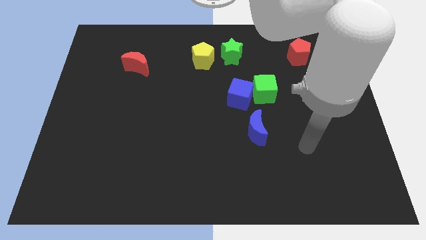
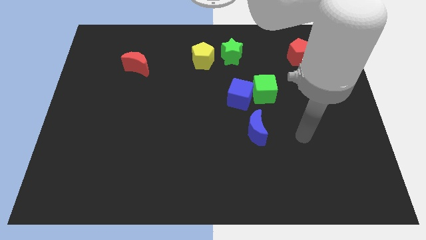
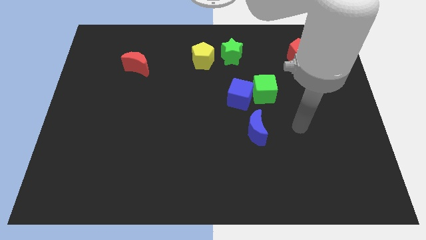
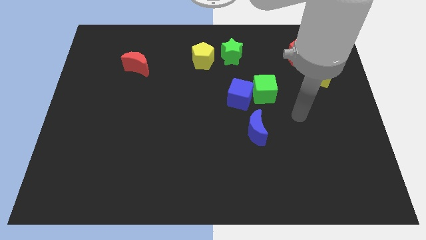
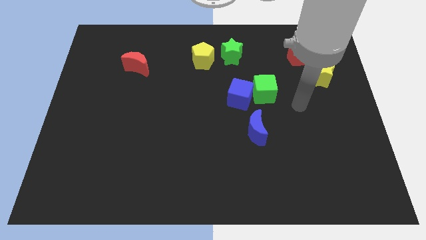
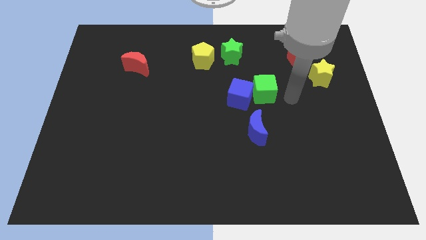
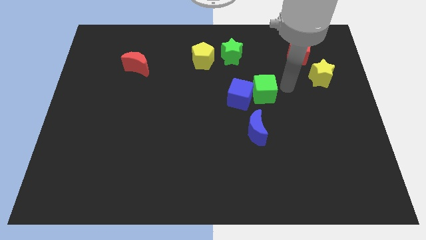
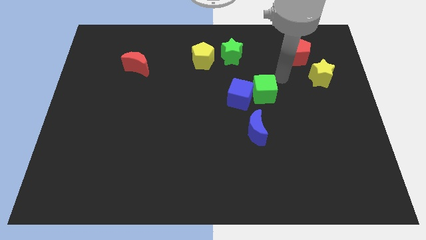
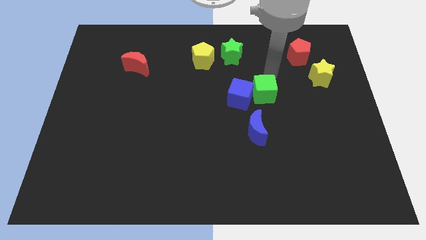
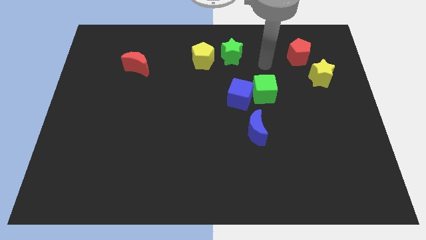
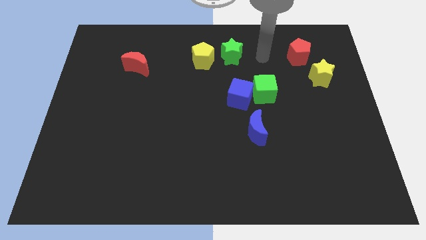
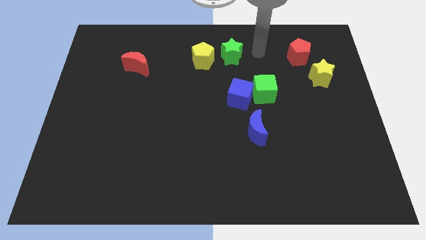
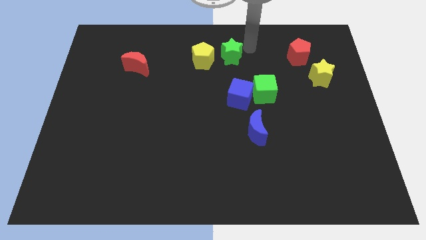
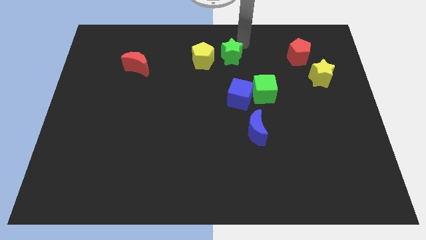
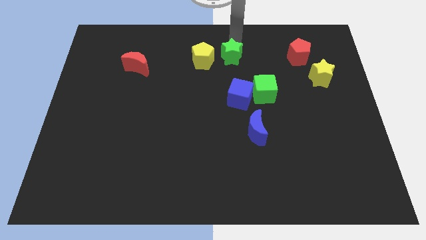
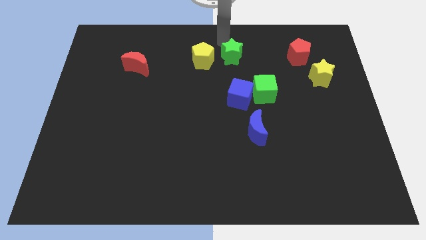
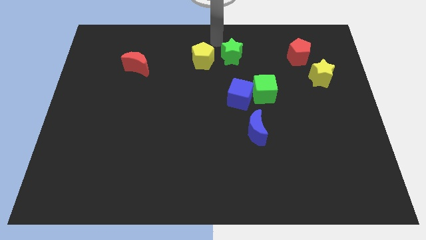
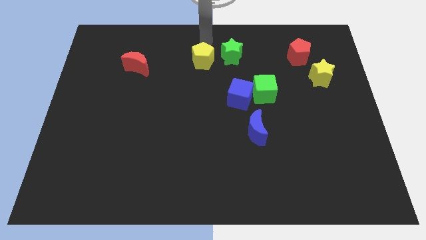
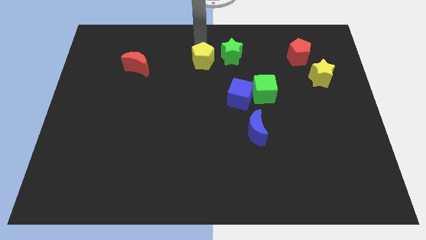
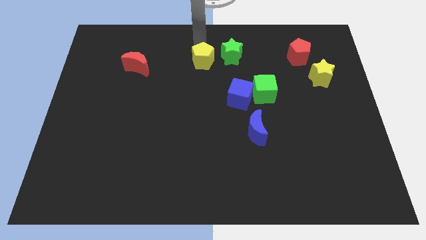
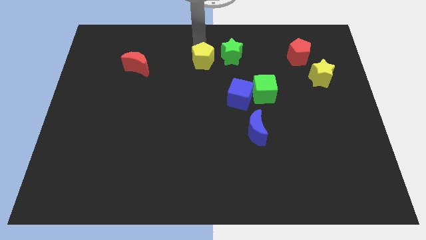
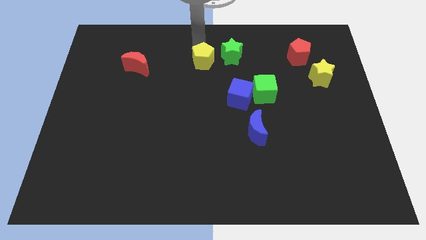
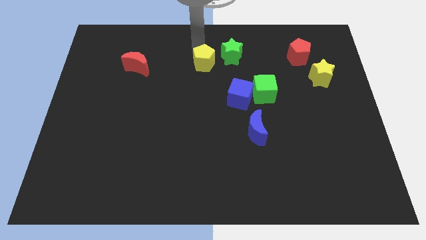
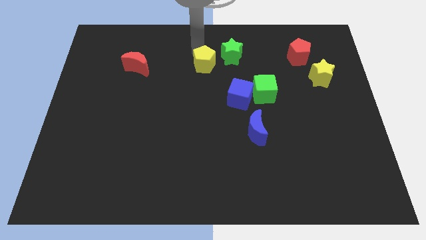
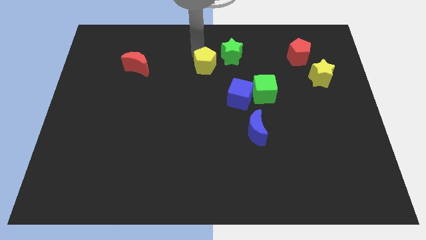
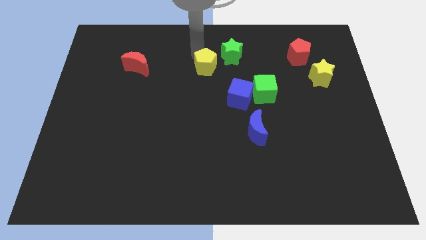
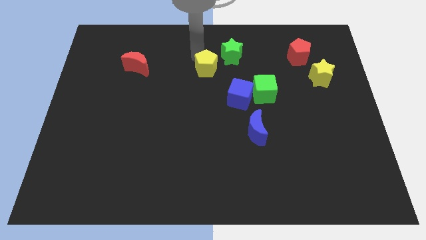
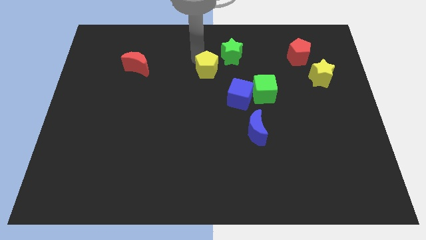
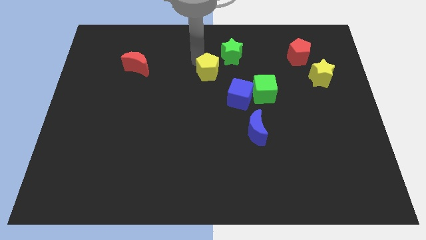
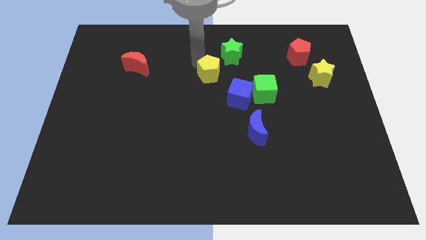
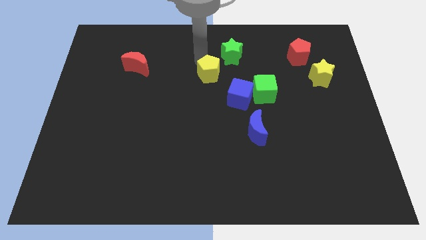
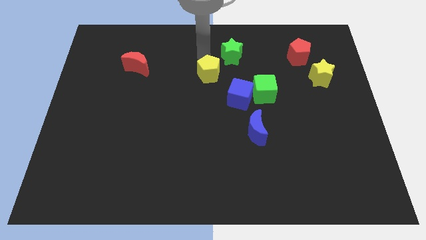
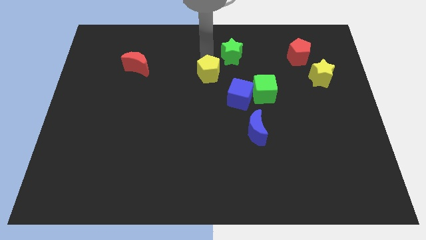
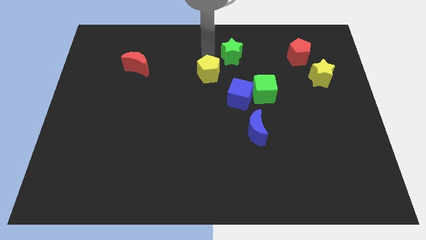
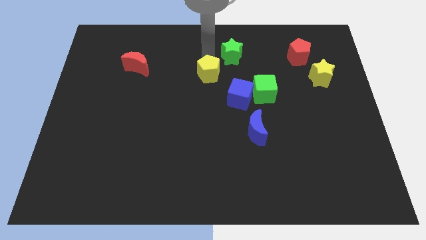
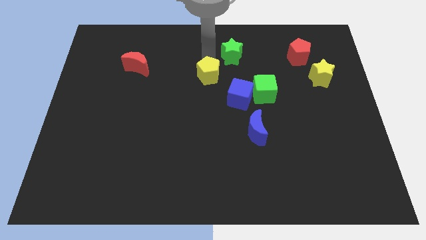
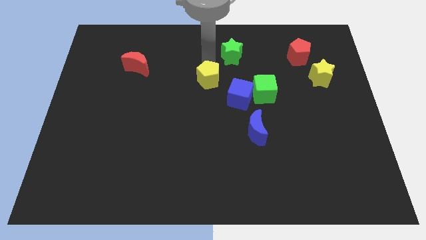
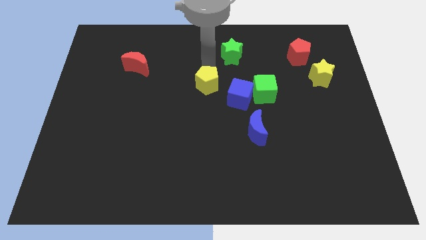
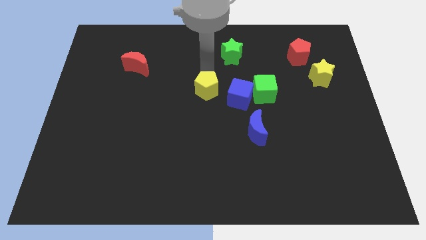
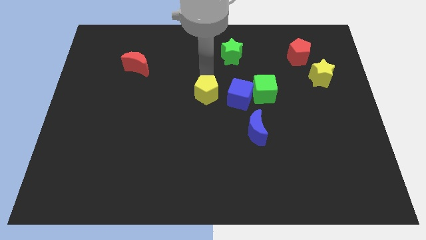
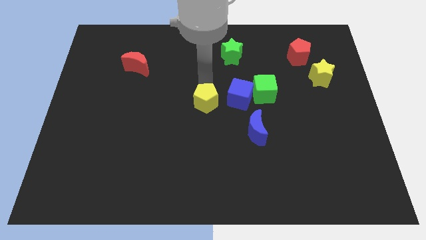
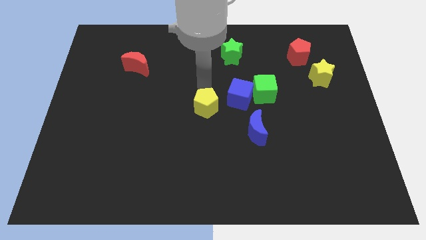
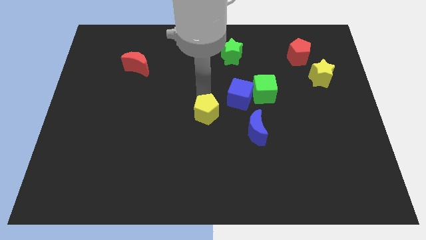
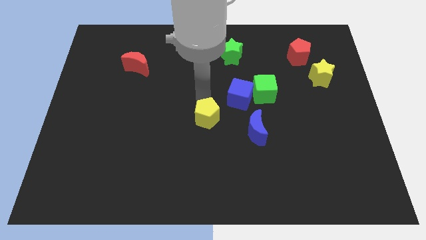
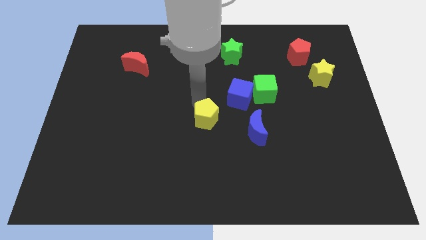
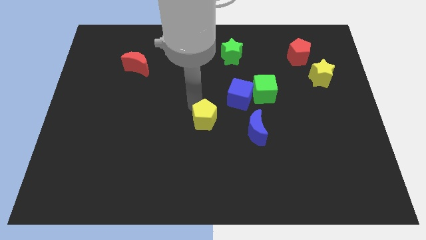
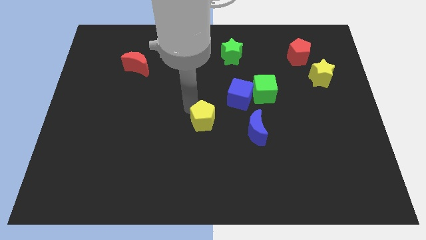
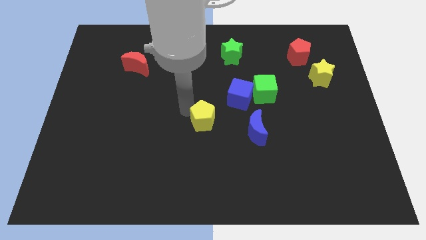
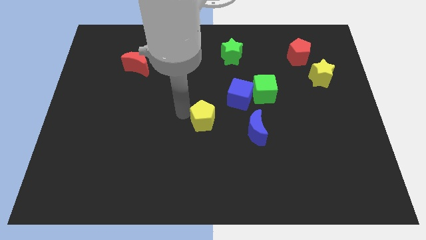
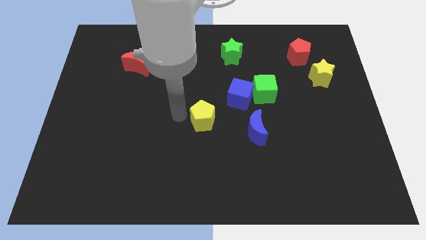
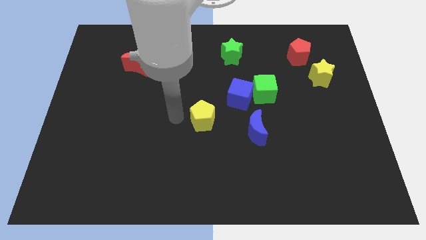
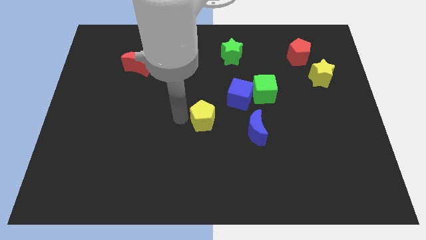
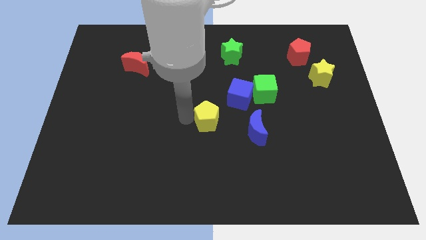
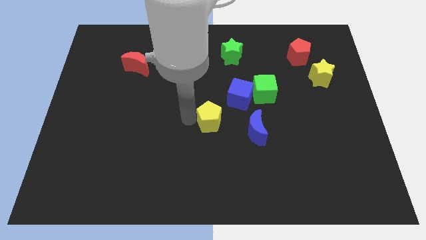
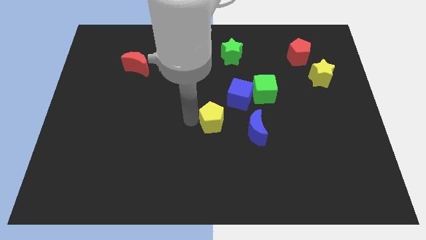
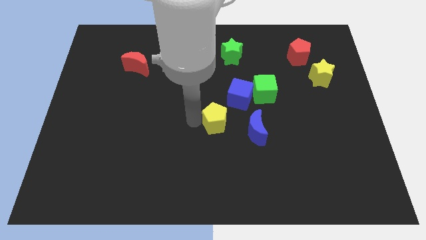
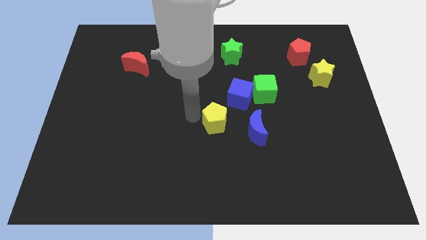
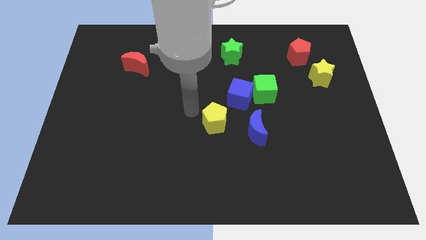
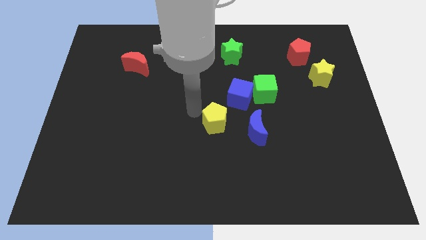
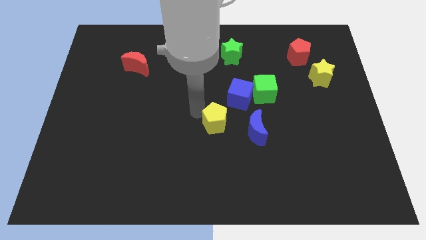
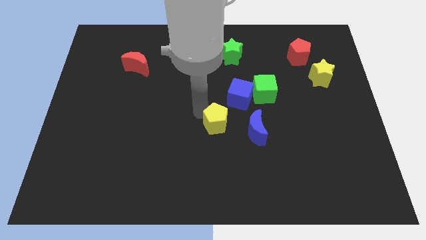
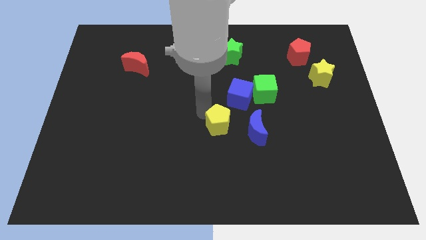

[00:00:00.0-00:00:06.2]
push the yellow pentagon below the blue cube

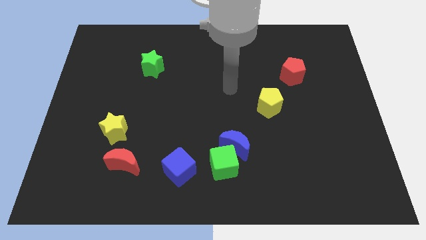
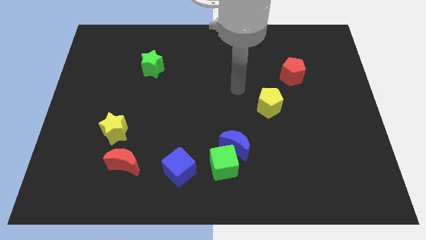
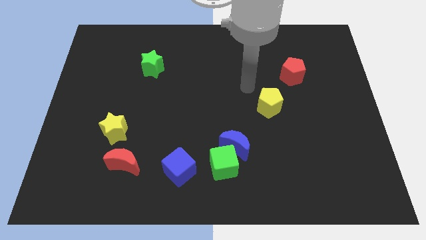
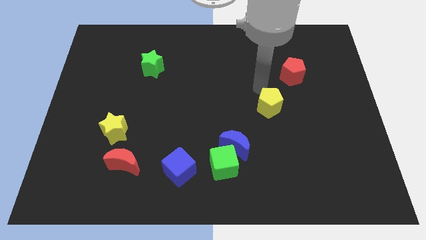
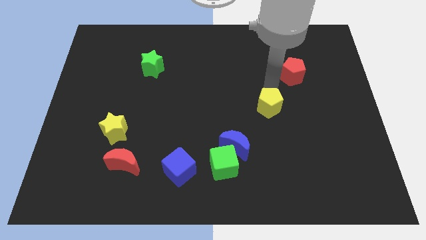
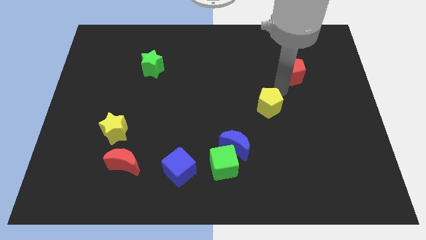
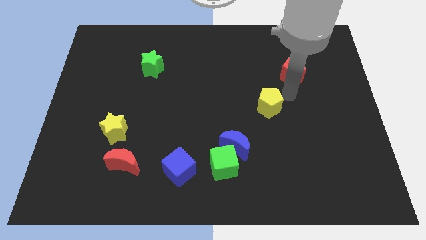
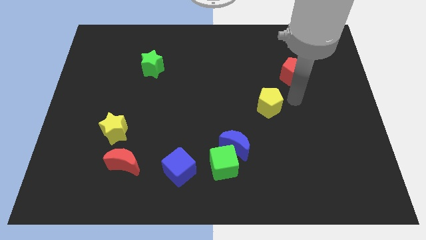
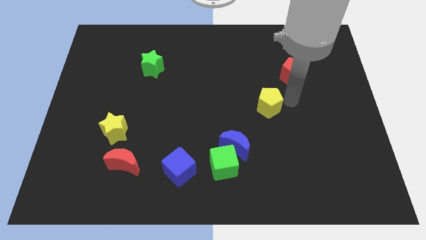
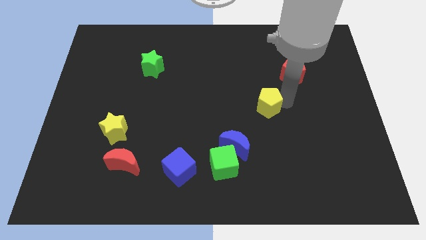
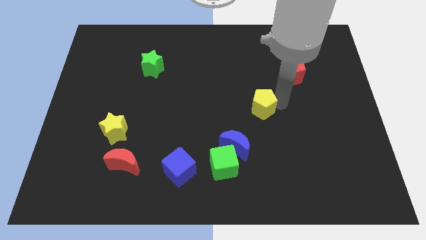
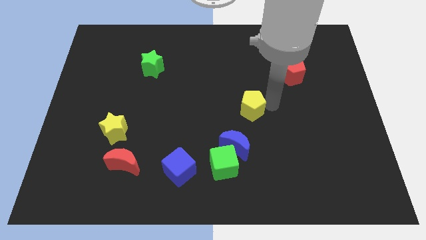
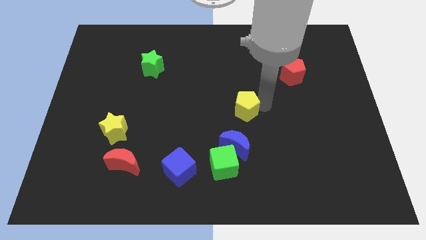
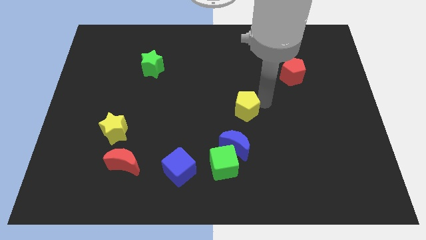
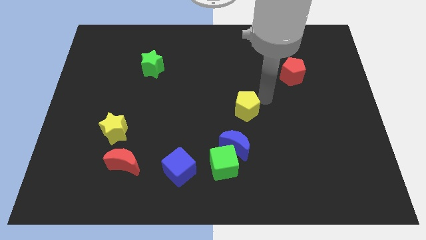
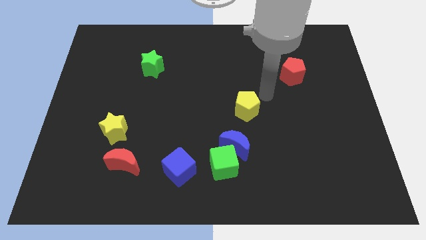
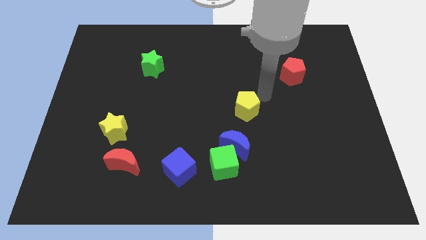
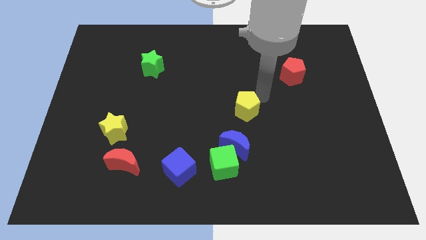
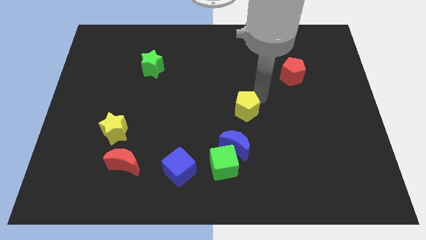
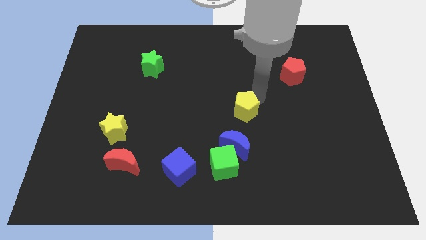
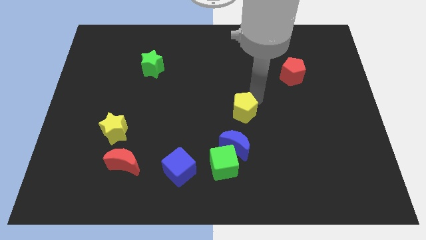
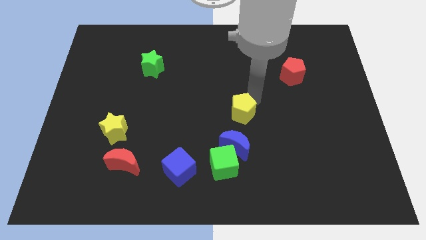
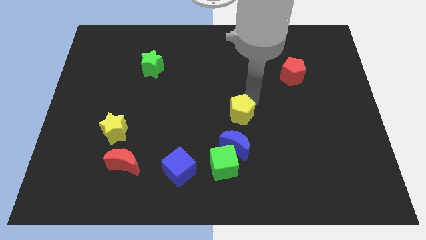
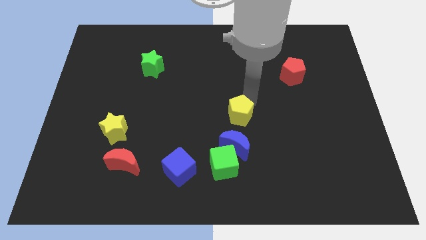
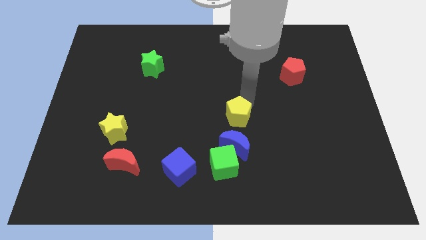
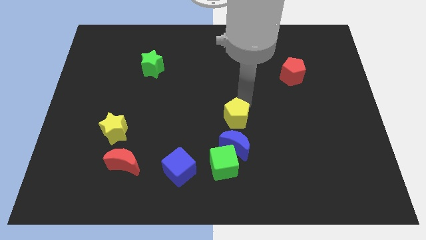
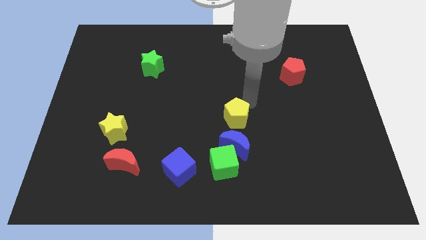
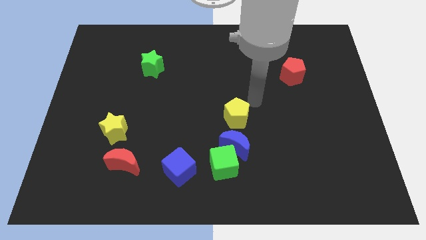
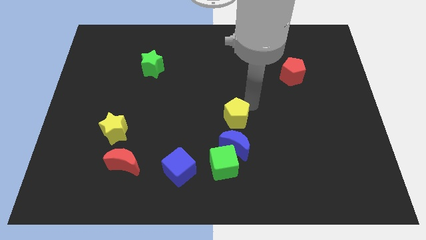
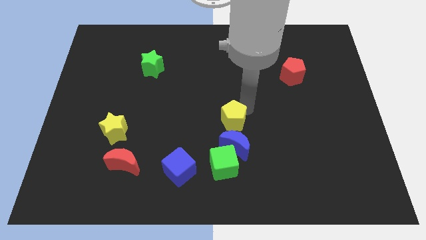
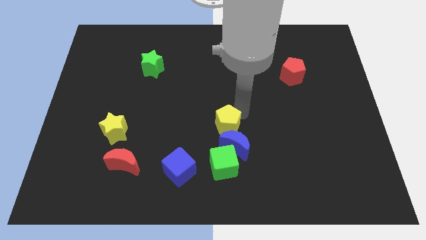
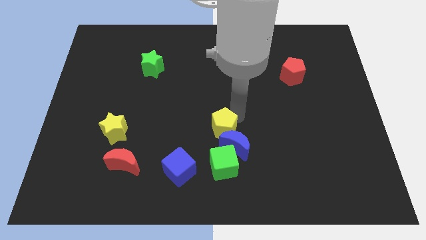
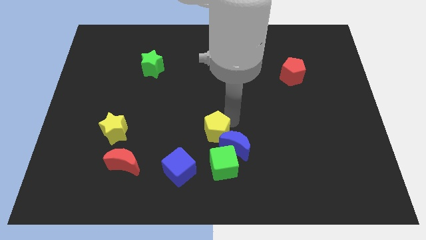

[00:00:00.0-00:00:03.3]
move the yellow pentagon to the top right of the blue cube
